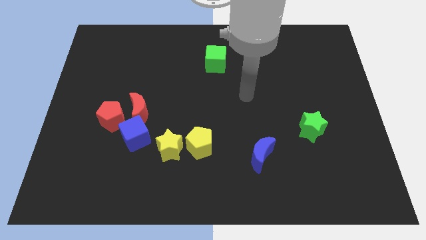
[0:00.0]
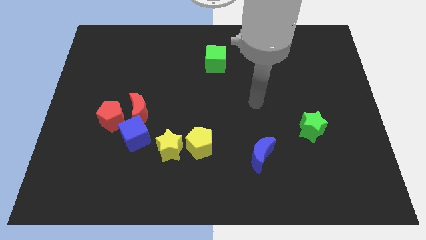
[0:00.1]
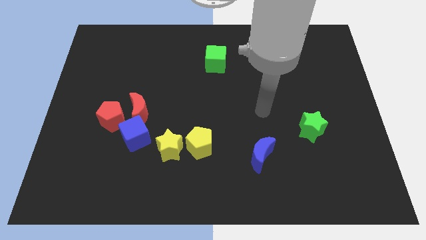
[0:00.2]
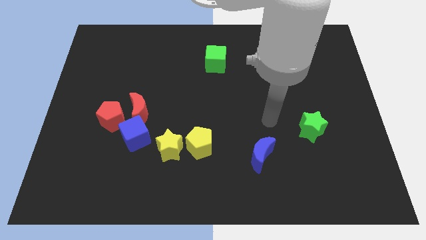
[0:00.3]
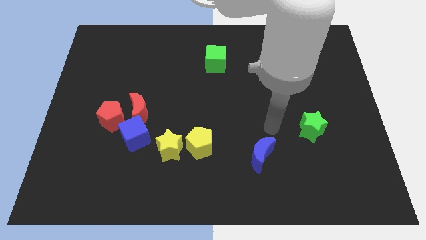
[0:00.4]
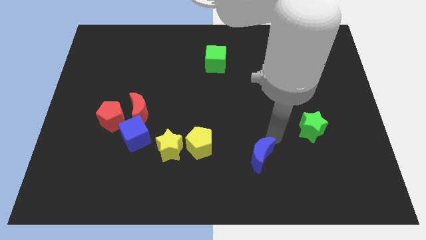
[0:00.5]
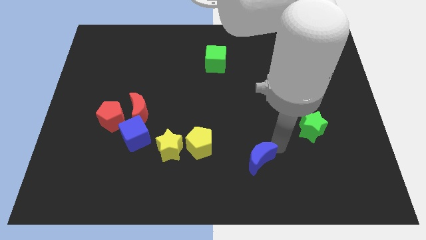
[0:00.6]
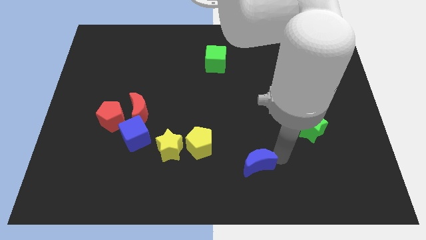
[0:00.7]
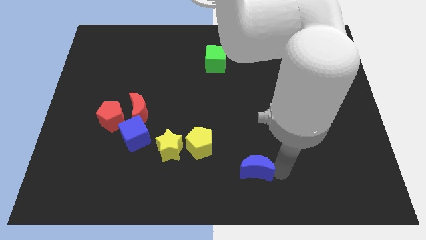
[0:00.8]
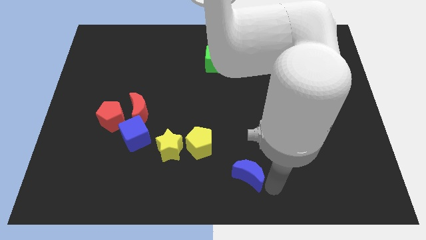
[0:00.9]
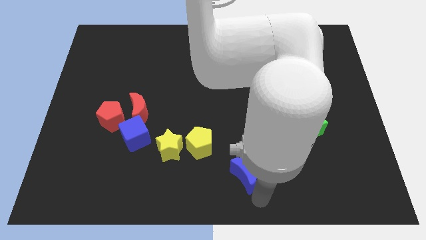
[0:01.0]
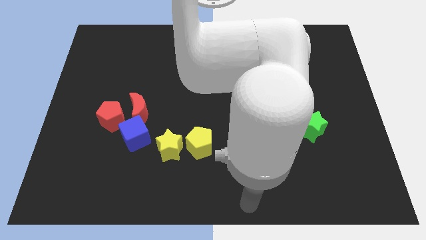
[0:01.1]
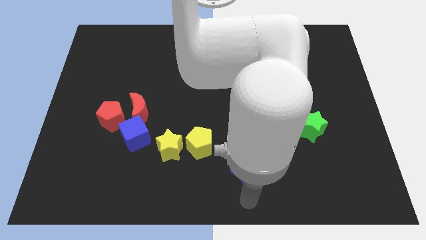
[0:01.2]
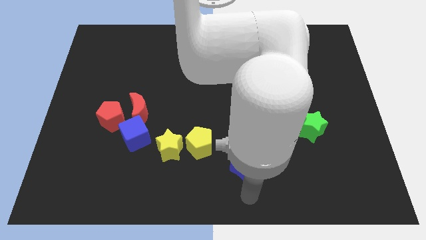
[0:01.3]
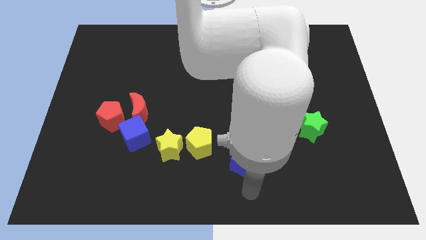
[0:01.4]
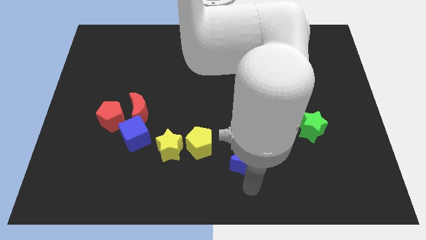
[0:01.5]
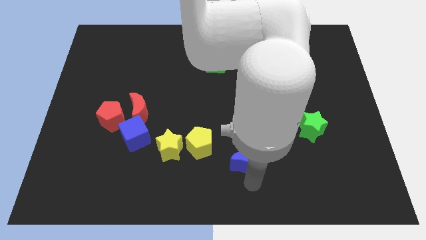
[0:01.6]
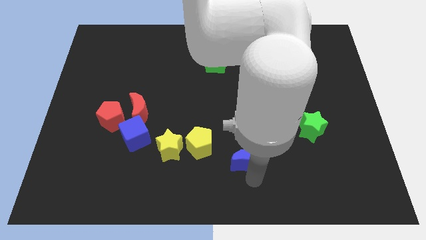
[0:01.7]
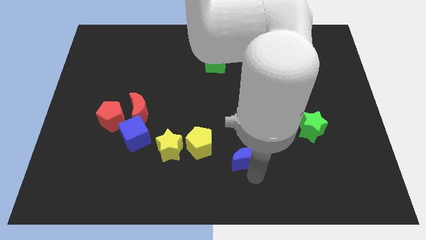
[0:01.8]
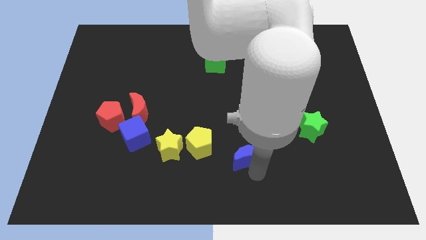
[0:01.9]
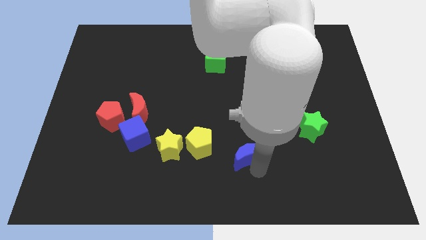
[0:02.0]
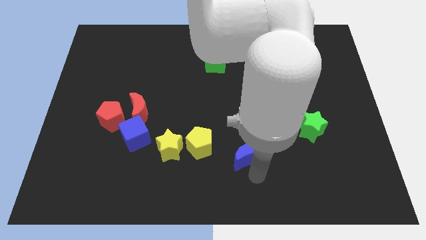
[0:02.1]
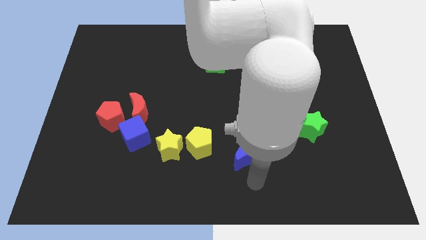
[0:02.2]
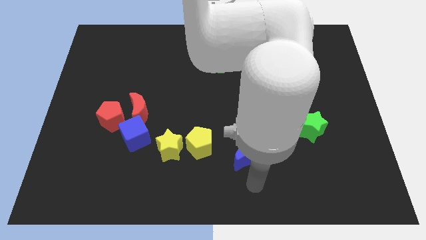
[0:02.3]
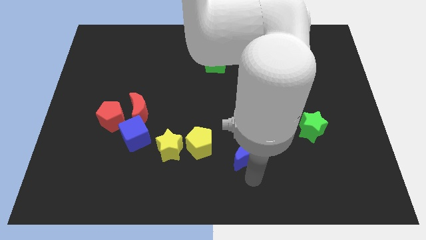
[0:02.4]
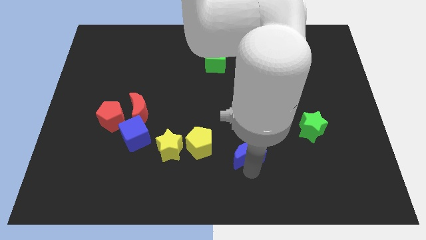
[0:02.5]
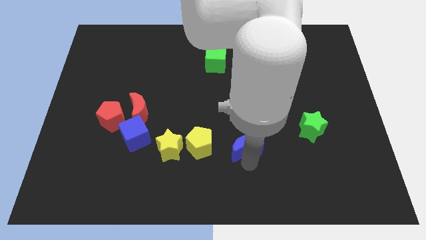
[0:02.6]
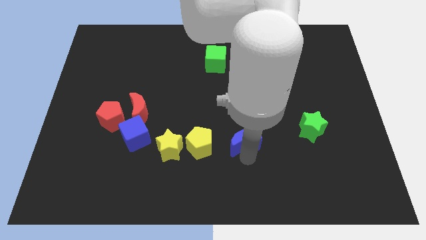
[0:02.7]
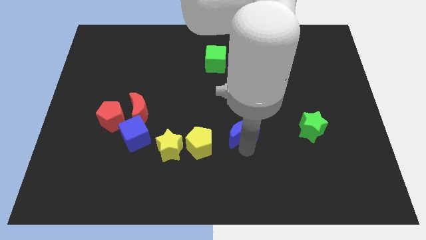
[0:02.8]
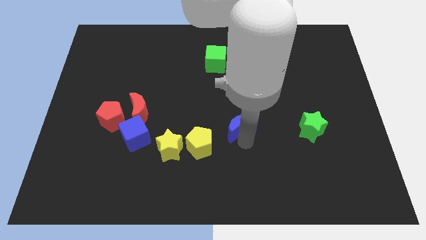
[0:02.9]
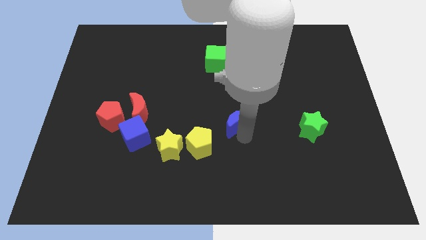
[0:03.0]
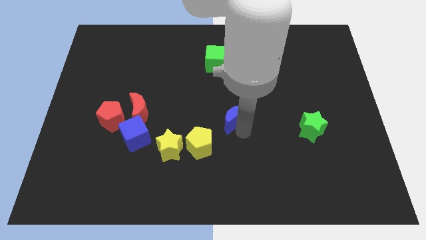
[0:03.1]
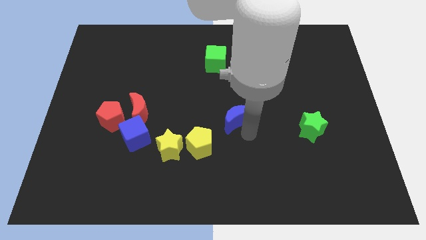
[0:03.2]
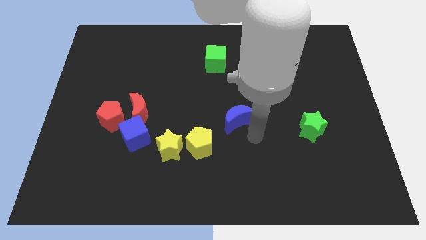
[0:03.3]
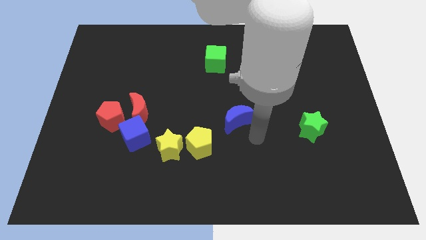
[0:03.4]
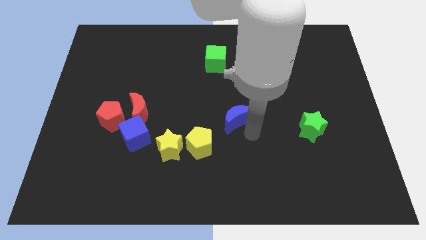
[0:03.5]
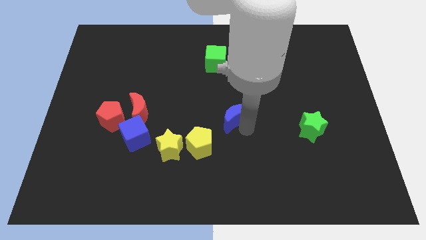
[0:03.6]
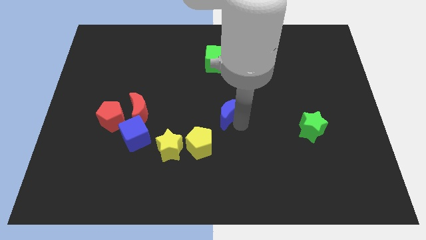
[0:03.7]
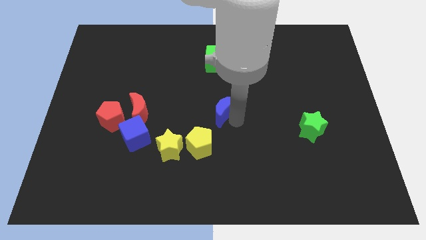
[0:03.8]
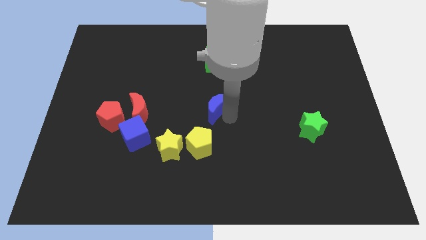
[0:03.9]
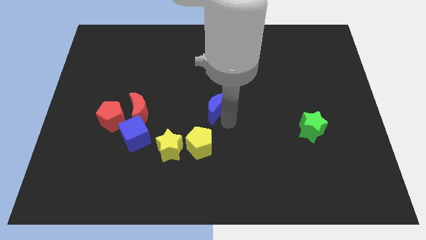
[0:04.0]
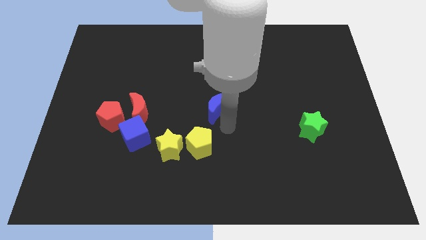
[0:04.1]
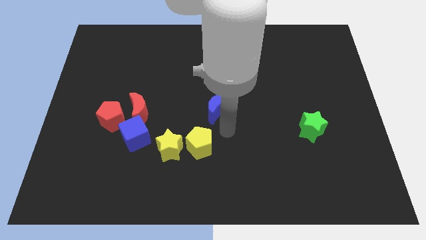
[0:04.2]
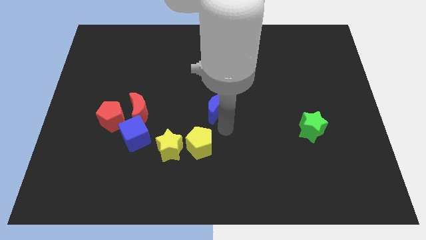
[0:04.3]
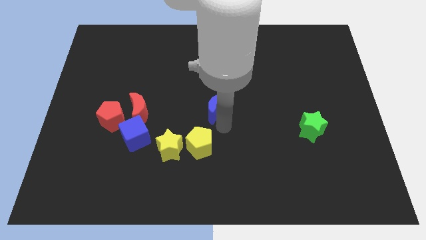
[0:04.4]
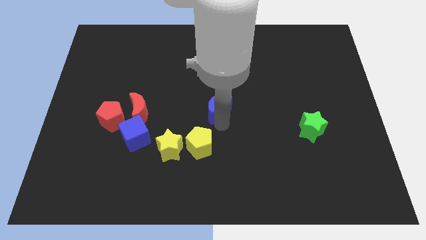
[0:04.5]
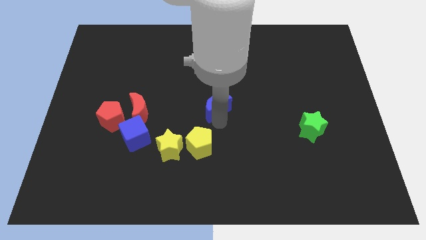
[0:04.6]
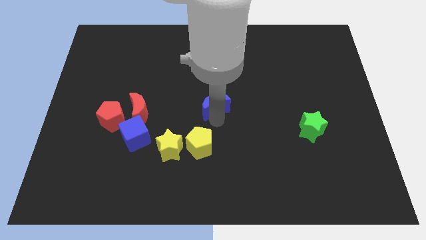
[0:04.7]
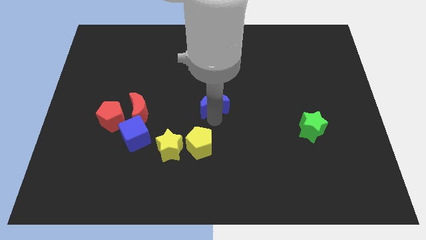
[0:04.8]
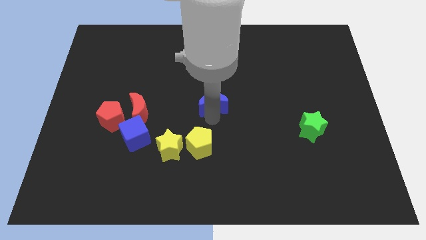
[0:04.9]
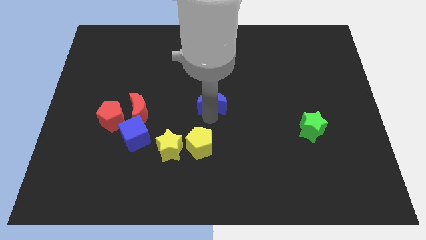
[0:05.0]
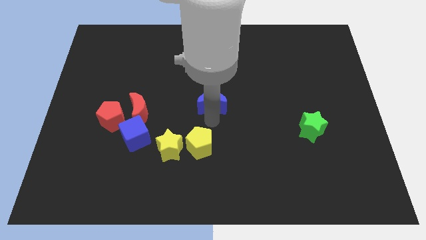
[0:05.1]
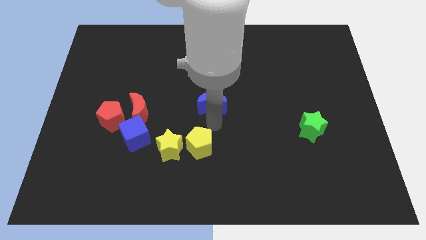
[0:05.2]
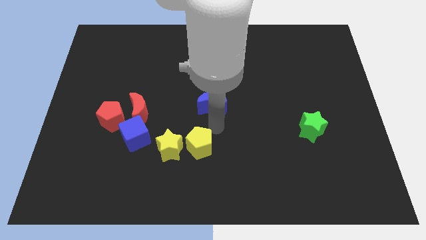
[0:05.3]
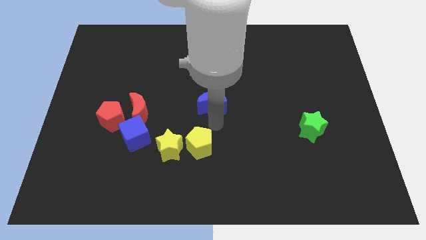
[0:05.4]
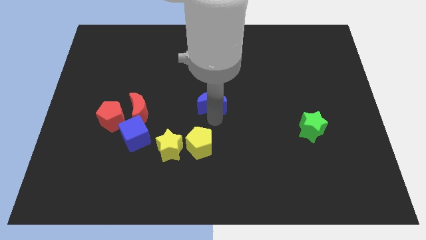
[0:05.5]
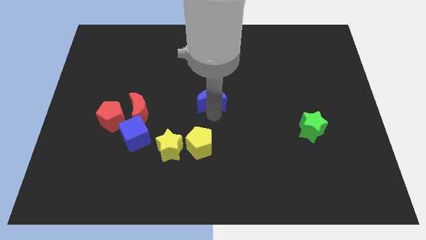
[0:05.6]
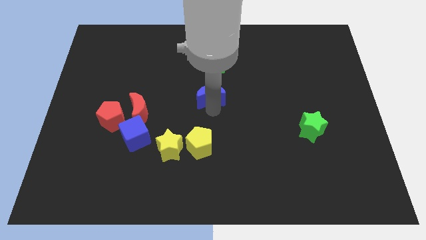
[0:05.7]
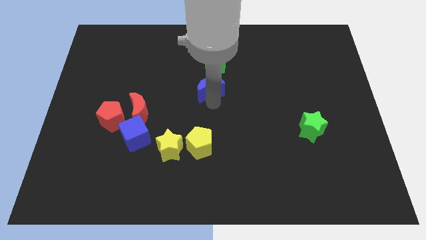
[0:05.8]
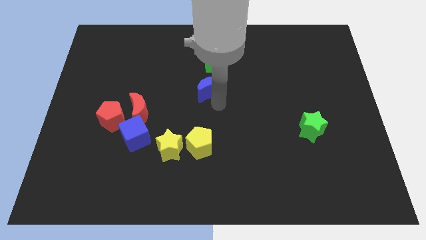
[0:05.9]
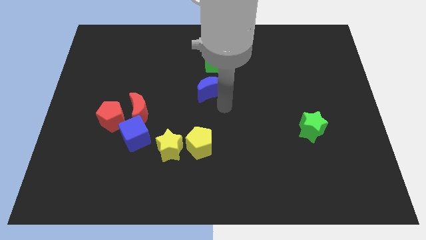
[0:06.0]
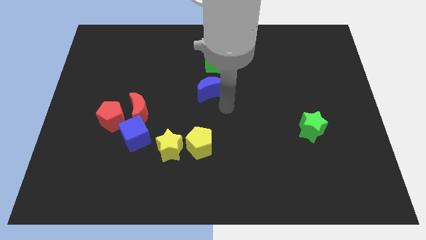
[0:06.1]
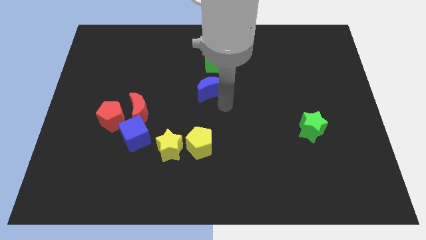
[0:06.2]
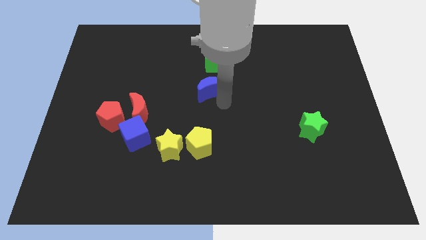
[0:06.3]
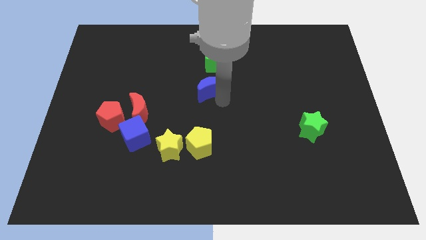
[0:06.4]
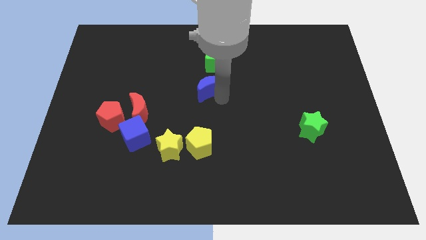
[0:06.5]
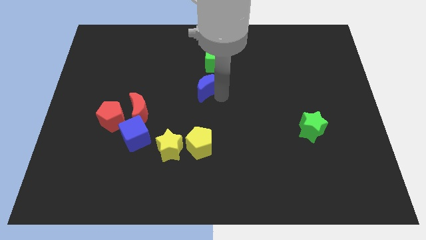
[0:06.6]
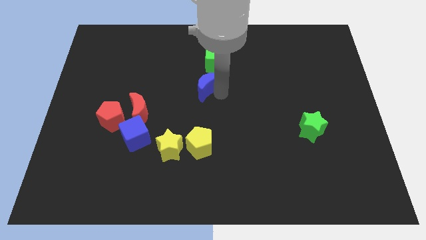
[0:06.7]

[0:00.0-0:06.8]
slide the blue moon to the bottom left of the green cube
